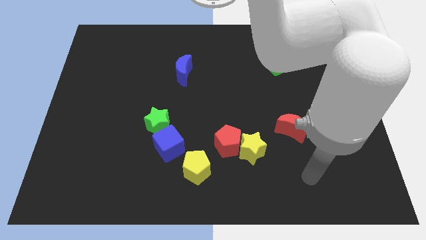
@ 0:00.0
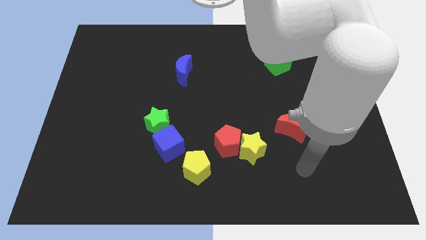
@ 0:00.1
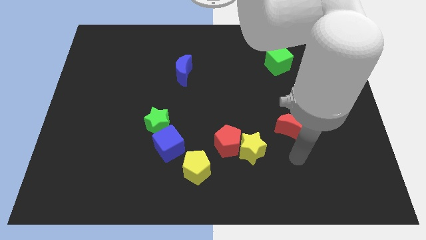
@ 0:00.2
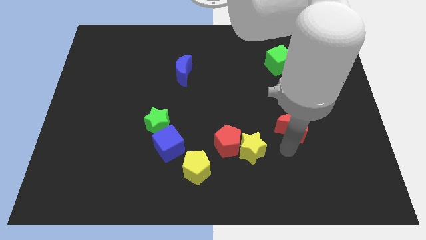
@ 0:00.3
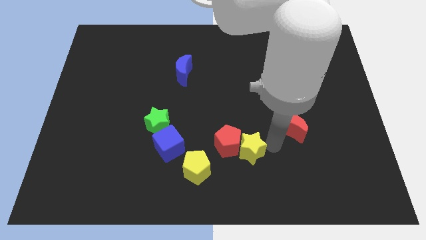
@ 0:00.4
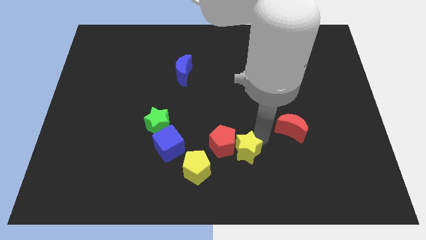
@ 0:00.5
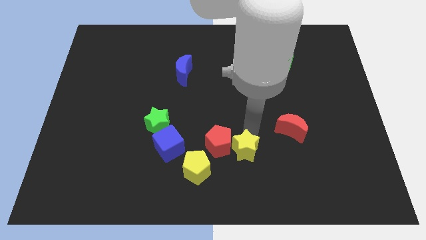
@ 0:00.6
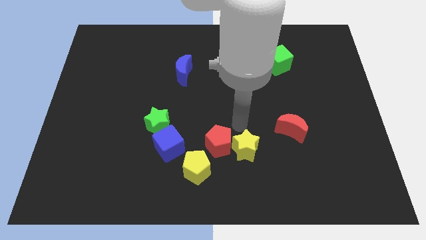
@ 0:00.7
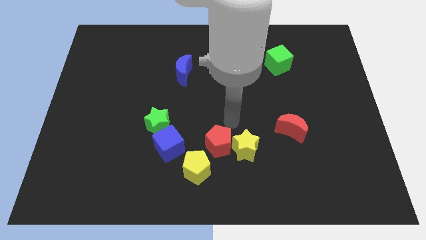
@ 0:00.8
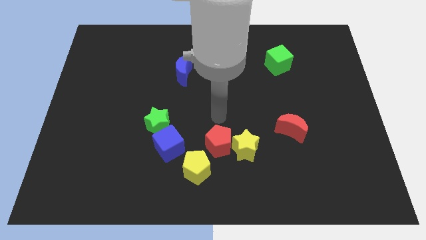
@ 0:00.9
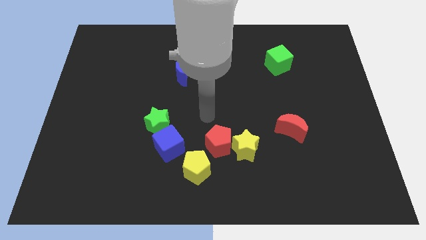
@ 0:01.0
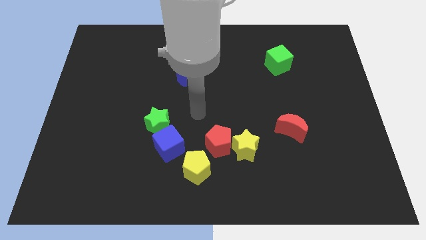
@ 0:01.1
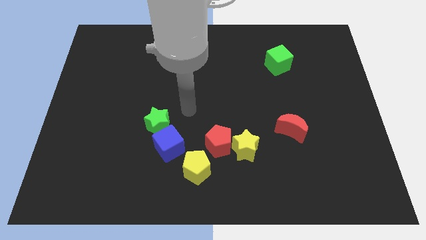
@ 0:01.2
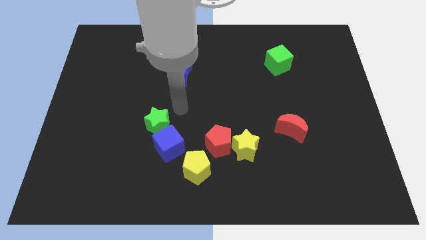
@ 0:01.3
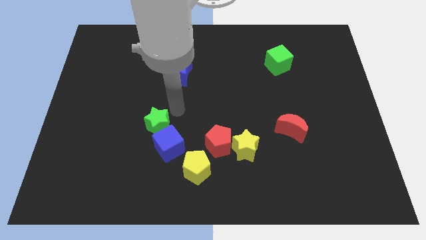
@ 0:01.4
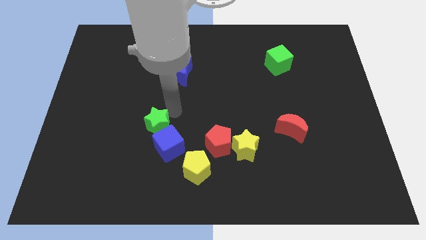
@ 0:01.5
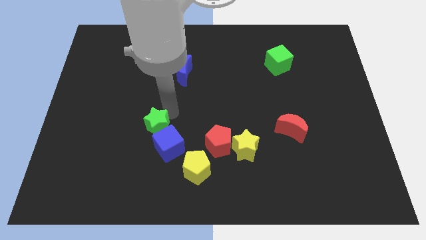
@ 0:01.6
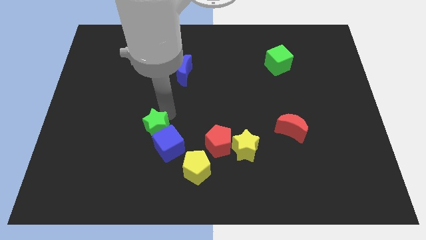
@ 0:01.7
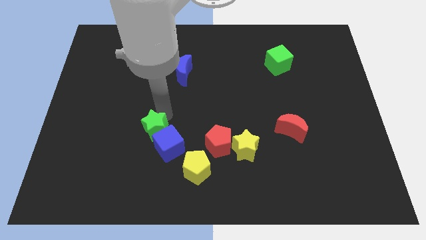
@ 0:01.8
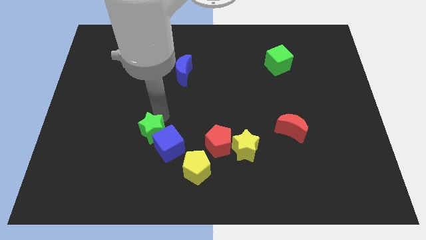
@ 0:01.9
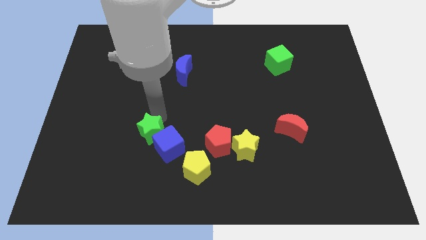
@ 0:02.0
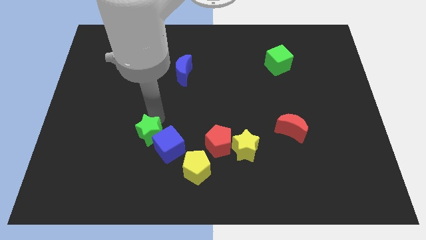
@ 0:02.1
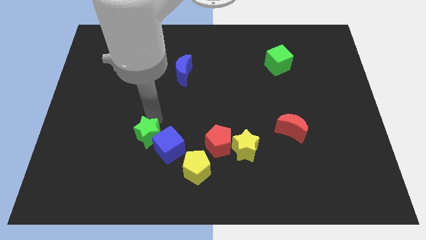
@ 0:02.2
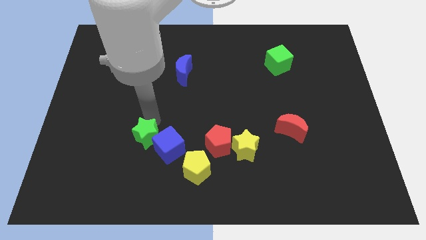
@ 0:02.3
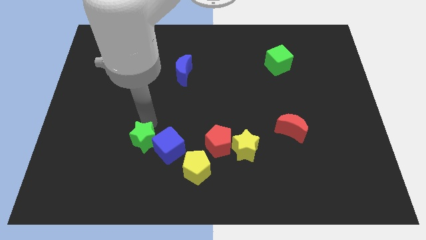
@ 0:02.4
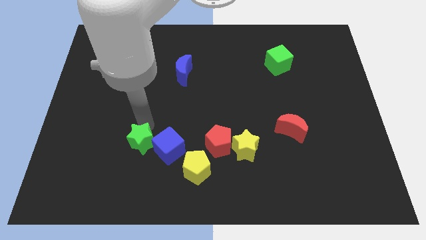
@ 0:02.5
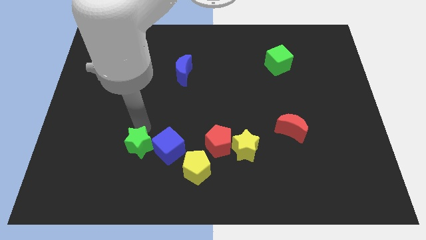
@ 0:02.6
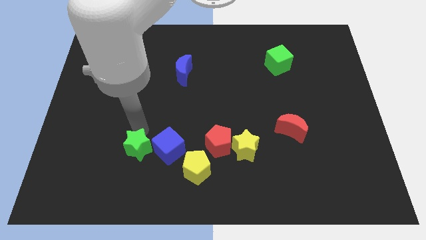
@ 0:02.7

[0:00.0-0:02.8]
slightly move the green star diagonally downwards and to the left

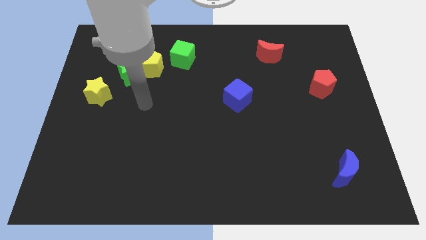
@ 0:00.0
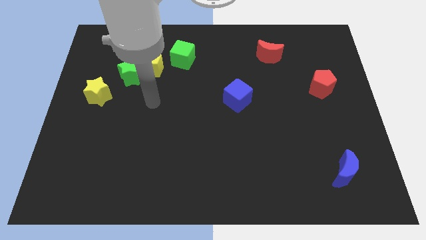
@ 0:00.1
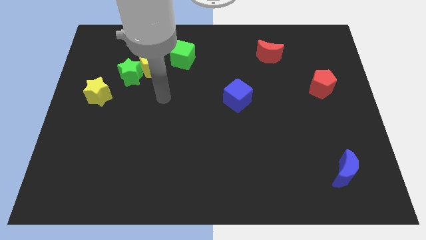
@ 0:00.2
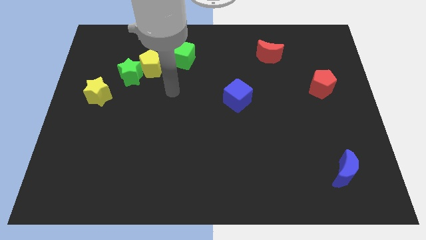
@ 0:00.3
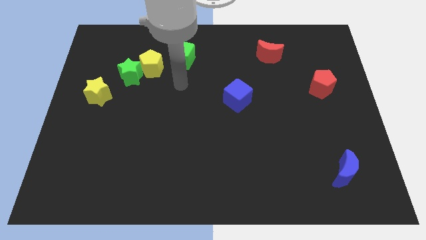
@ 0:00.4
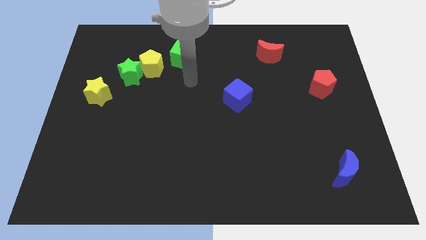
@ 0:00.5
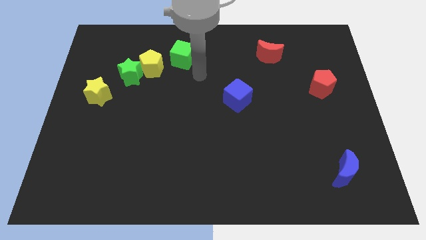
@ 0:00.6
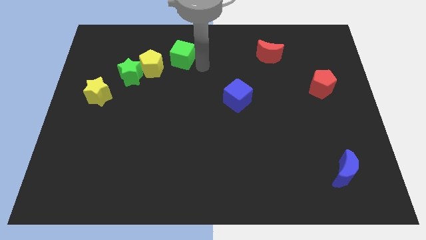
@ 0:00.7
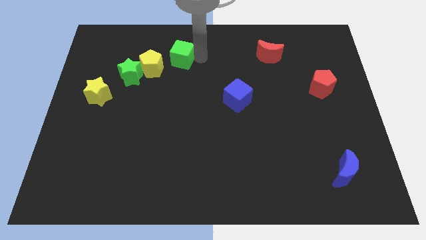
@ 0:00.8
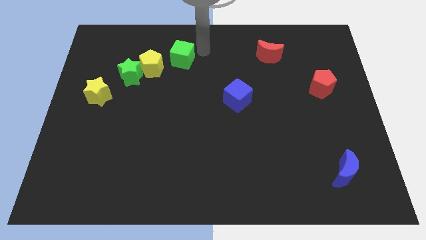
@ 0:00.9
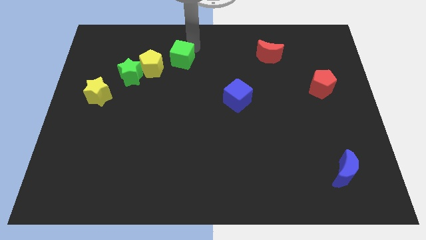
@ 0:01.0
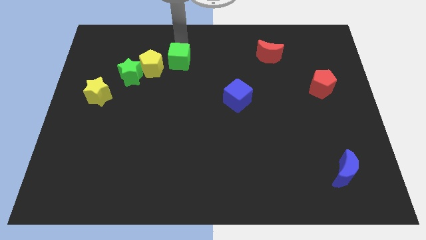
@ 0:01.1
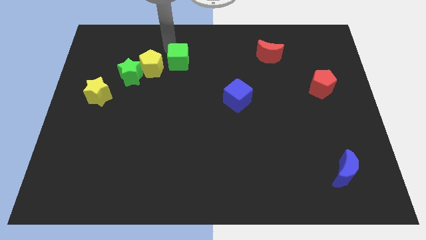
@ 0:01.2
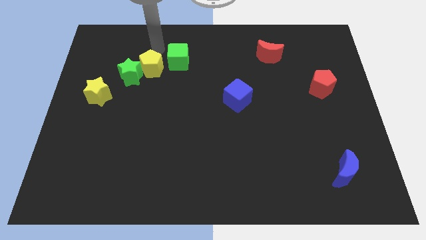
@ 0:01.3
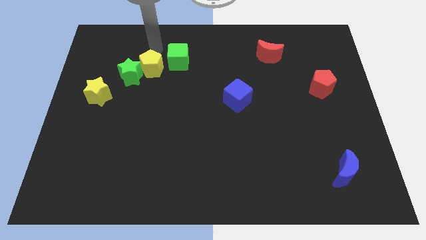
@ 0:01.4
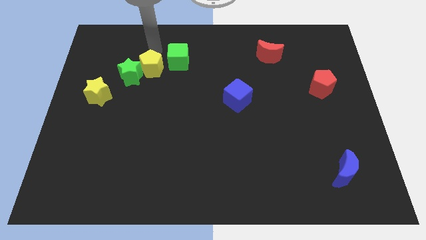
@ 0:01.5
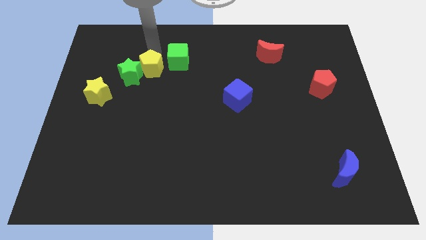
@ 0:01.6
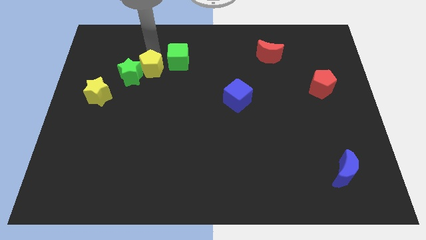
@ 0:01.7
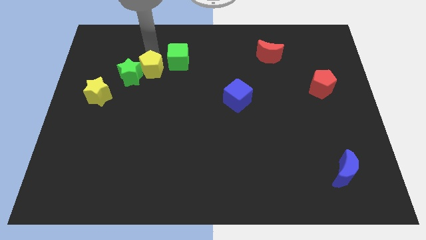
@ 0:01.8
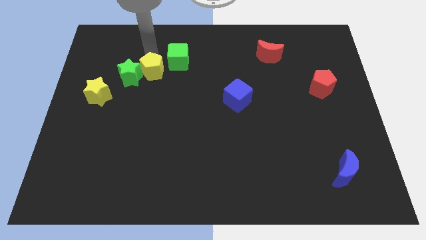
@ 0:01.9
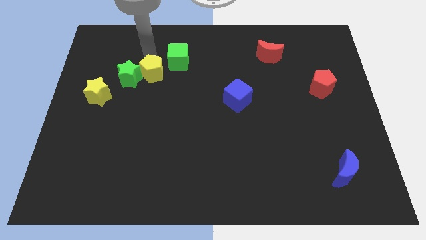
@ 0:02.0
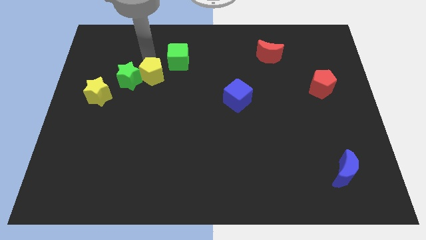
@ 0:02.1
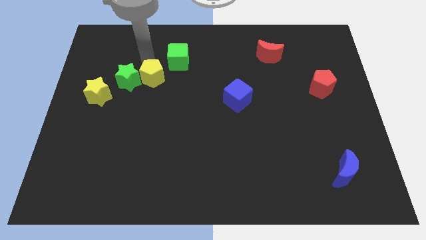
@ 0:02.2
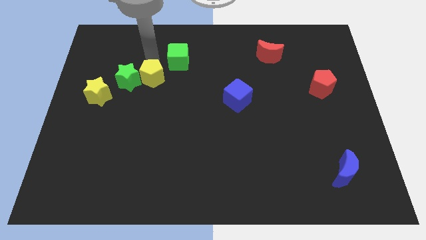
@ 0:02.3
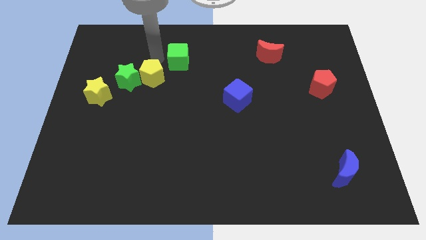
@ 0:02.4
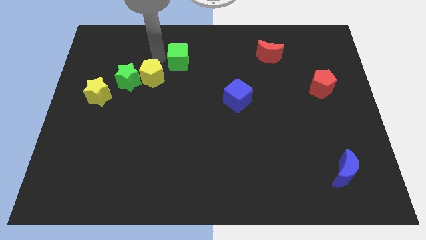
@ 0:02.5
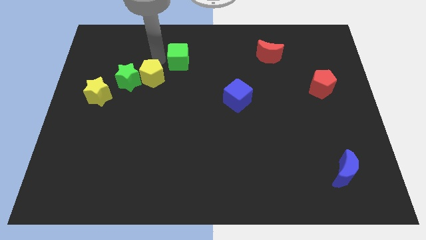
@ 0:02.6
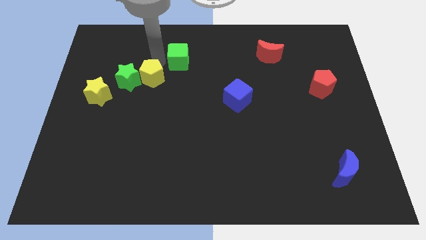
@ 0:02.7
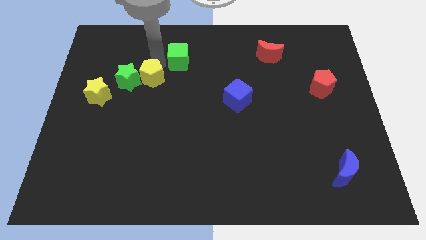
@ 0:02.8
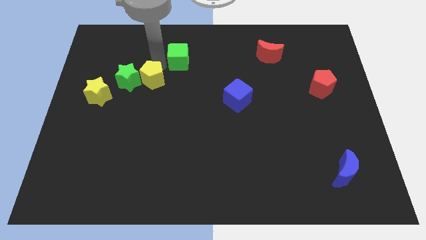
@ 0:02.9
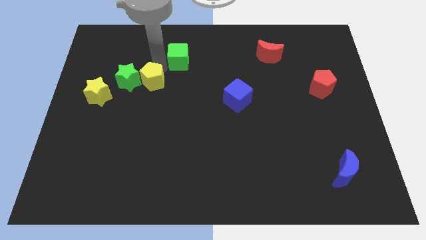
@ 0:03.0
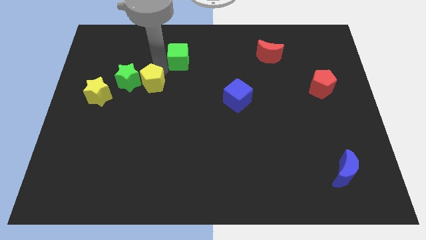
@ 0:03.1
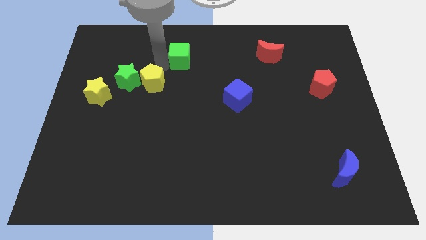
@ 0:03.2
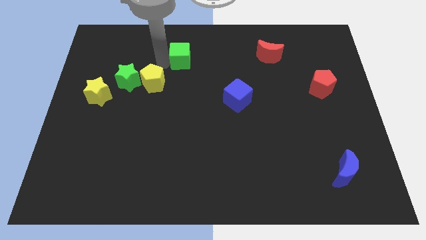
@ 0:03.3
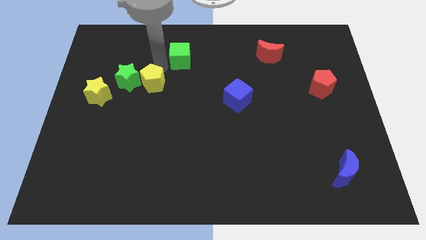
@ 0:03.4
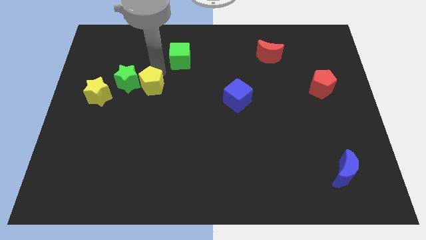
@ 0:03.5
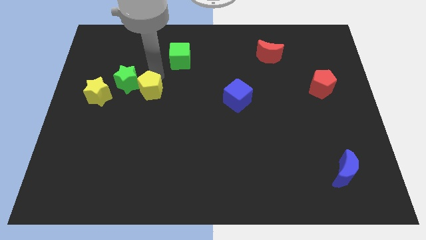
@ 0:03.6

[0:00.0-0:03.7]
slightly push the yellow pentagon downwards

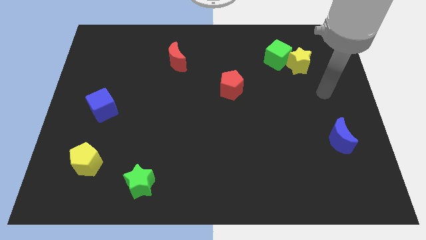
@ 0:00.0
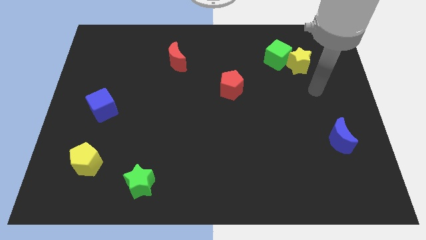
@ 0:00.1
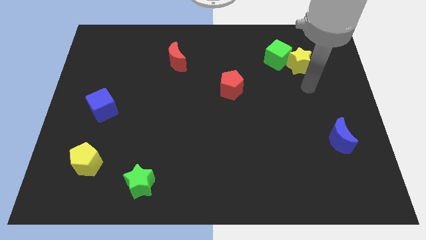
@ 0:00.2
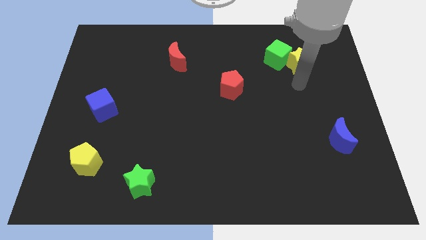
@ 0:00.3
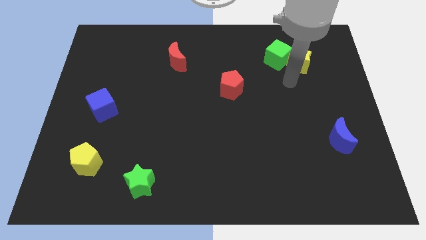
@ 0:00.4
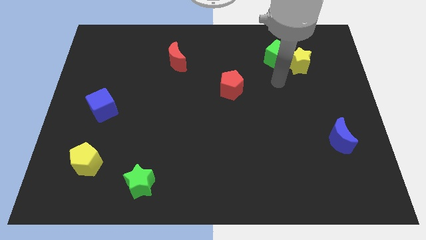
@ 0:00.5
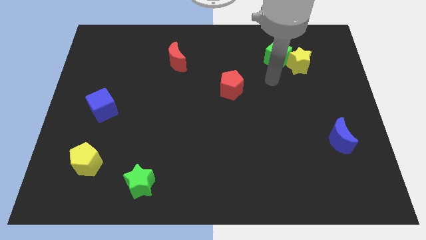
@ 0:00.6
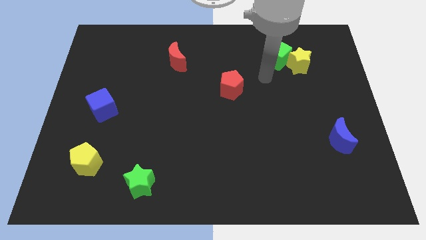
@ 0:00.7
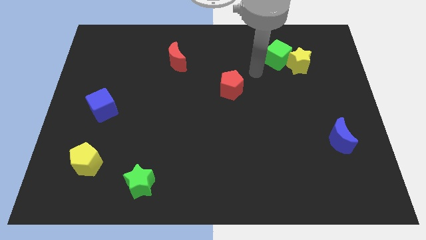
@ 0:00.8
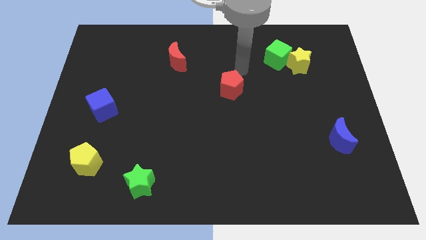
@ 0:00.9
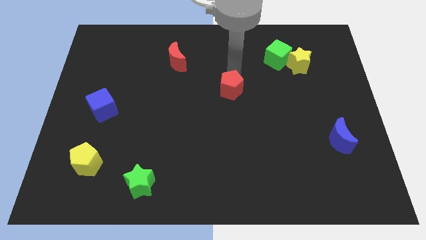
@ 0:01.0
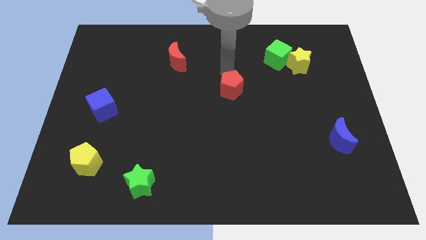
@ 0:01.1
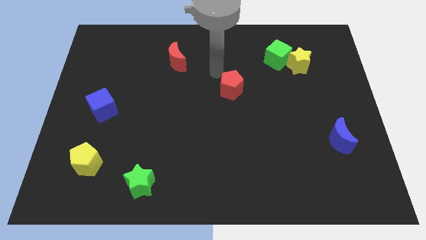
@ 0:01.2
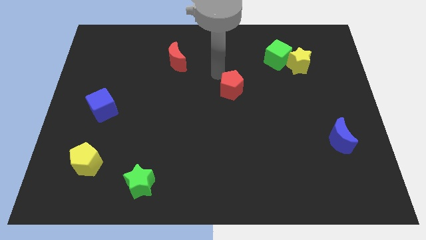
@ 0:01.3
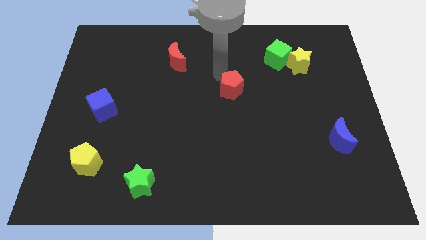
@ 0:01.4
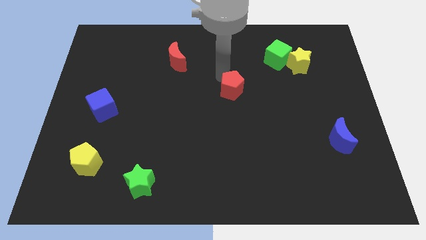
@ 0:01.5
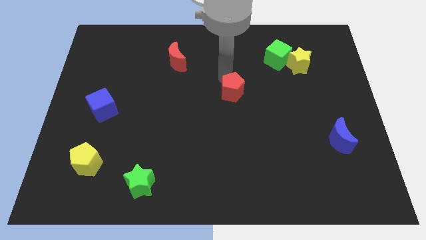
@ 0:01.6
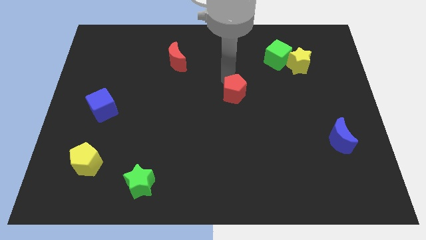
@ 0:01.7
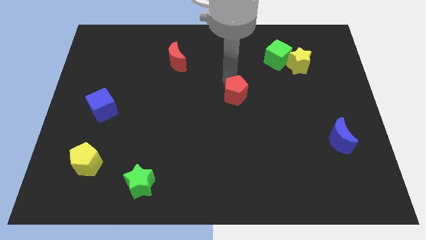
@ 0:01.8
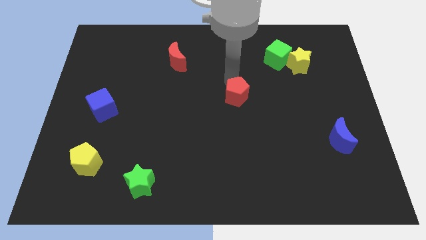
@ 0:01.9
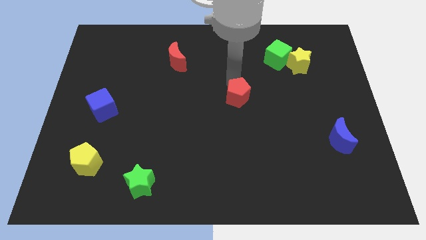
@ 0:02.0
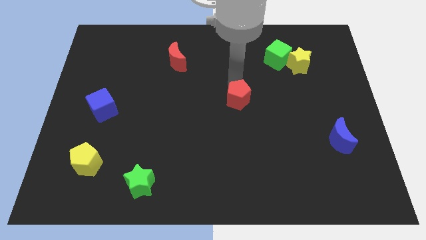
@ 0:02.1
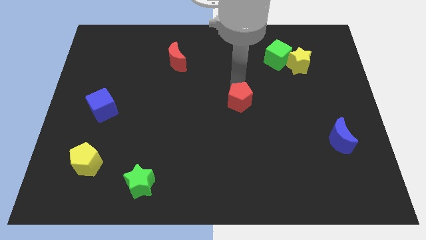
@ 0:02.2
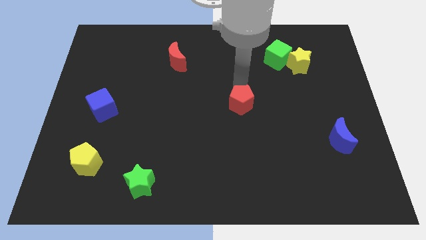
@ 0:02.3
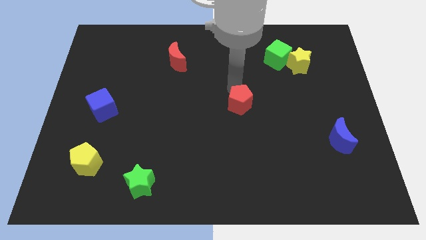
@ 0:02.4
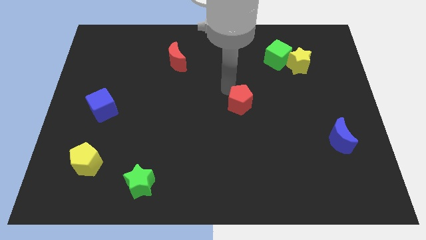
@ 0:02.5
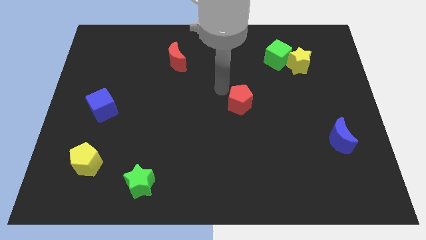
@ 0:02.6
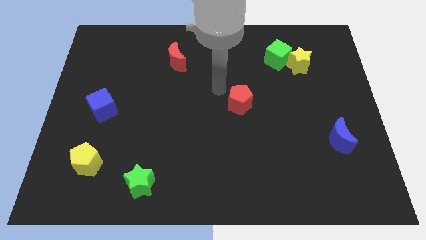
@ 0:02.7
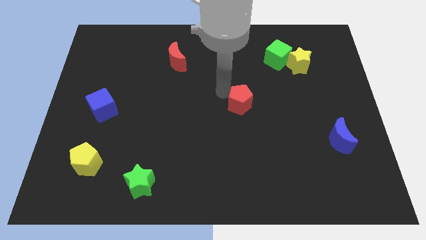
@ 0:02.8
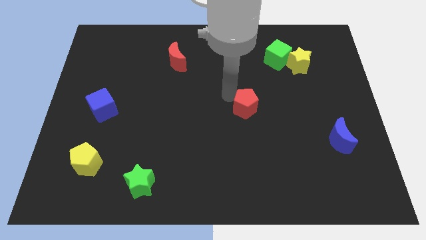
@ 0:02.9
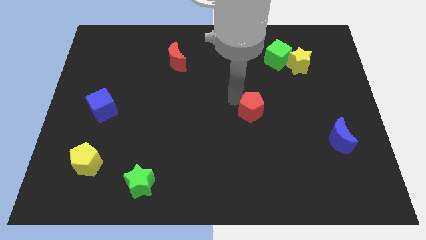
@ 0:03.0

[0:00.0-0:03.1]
slide the red pentagon a little bit downwards and then right
